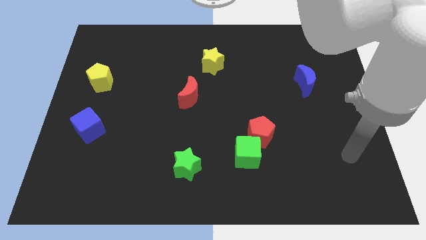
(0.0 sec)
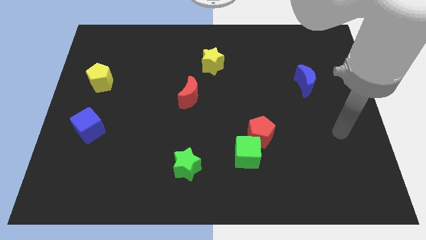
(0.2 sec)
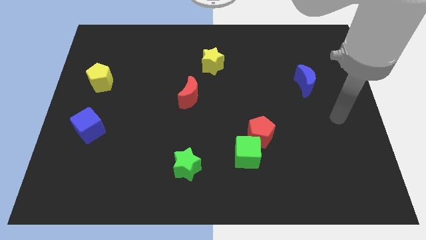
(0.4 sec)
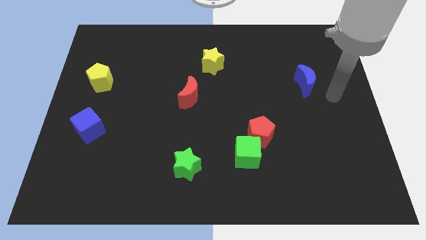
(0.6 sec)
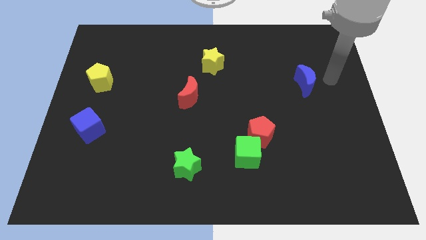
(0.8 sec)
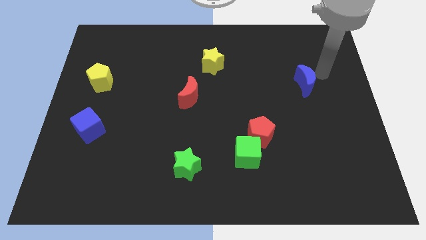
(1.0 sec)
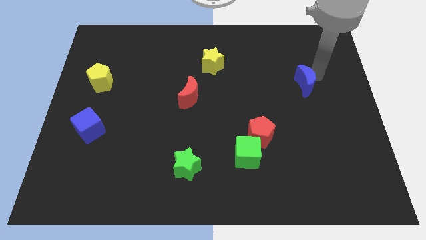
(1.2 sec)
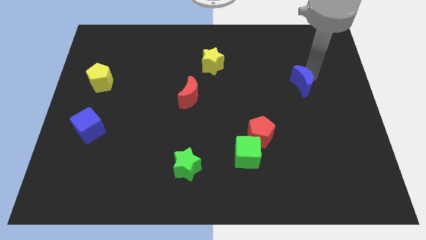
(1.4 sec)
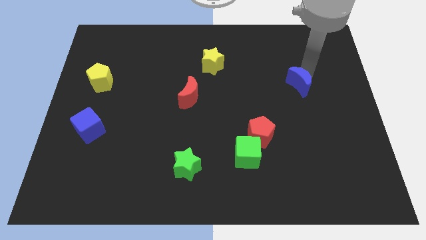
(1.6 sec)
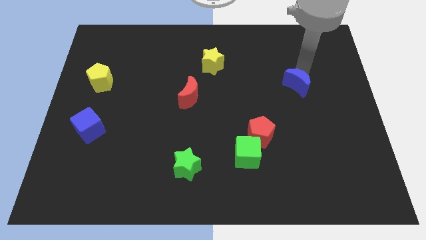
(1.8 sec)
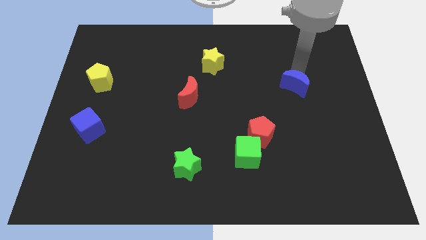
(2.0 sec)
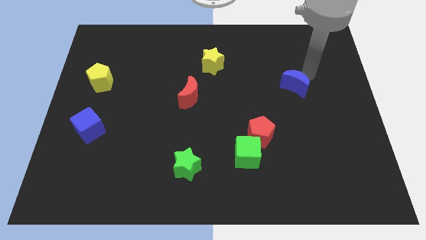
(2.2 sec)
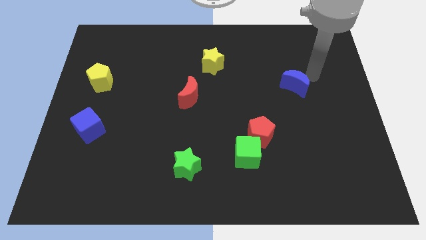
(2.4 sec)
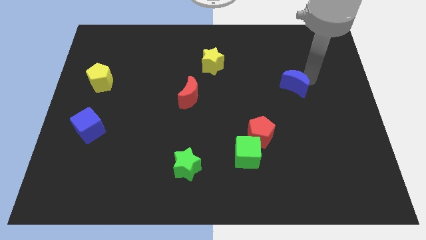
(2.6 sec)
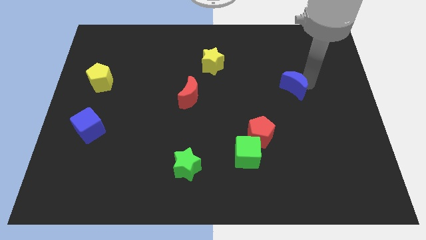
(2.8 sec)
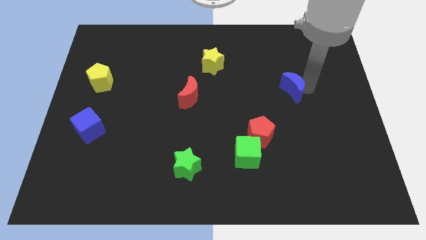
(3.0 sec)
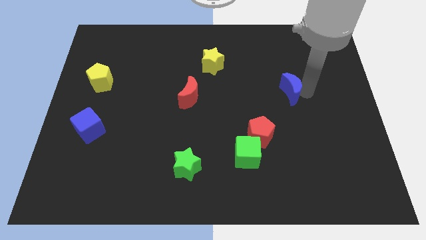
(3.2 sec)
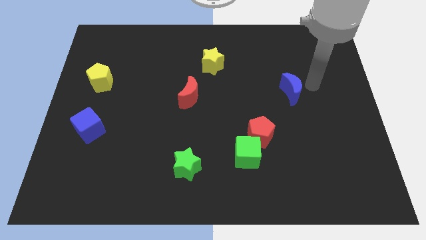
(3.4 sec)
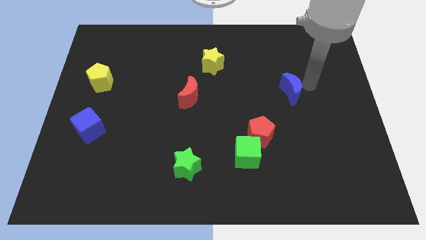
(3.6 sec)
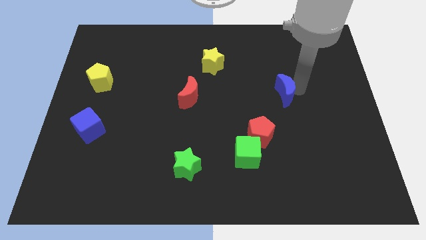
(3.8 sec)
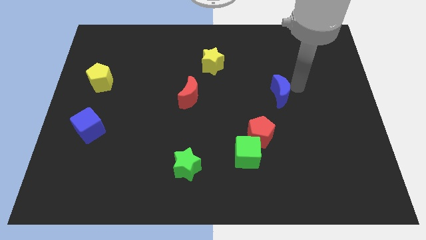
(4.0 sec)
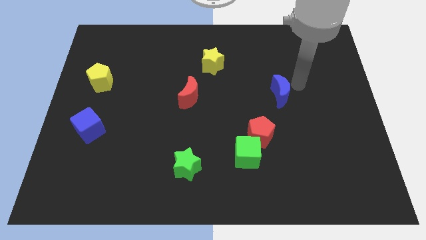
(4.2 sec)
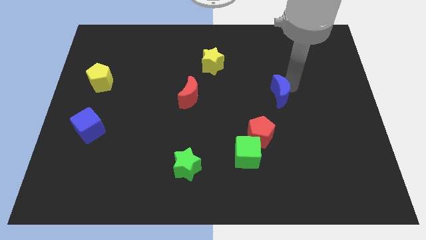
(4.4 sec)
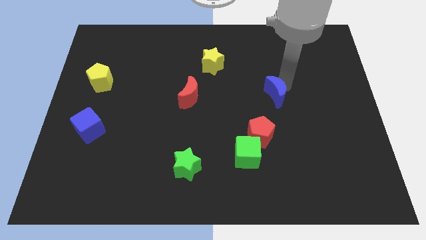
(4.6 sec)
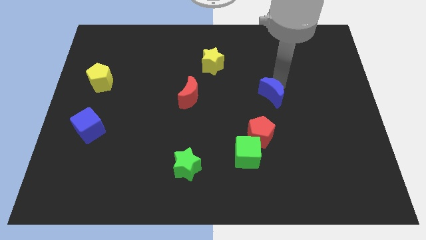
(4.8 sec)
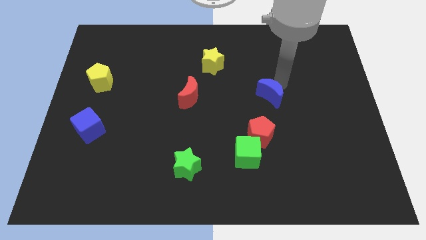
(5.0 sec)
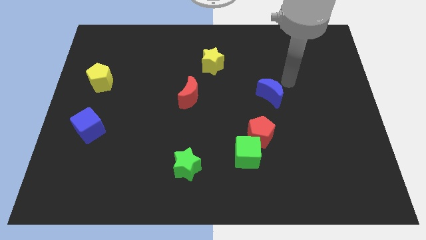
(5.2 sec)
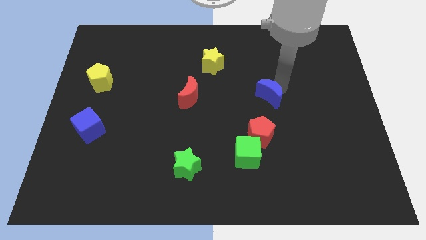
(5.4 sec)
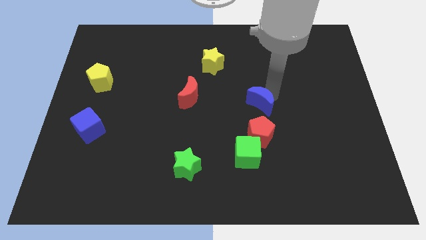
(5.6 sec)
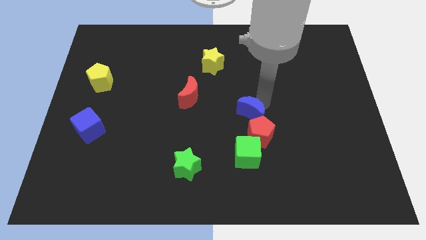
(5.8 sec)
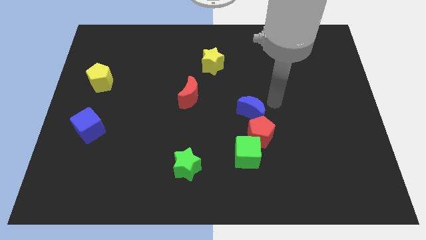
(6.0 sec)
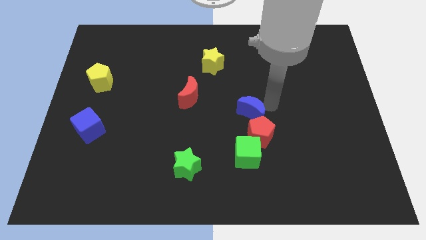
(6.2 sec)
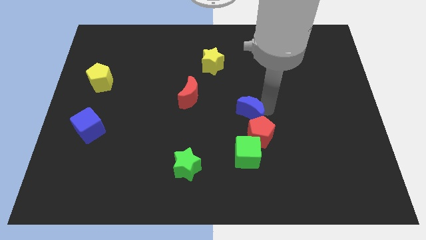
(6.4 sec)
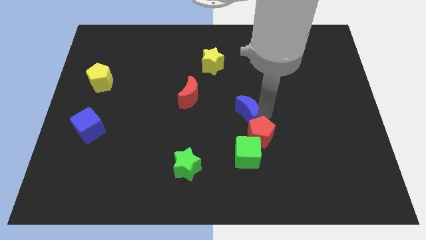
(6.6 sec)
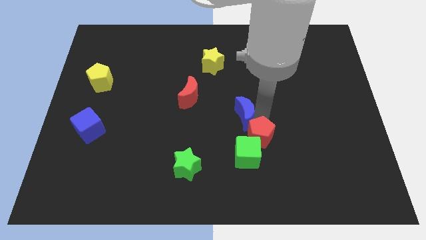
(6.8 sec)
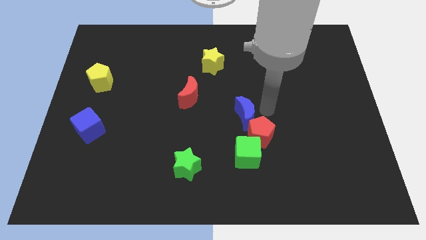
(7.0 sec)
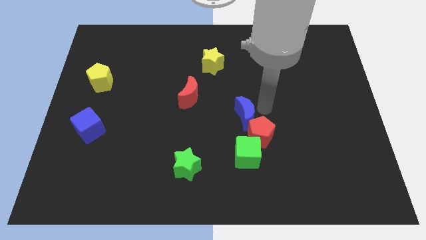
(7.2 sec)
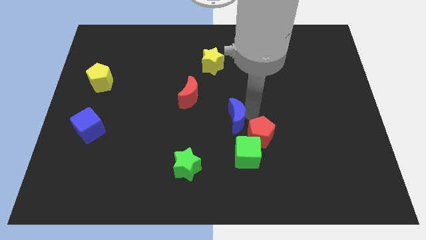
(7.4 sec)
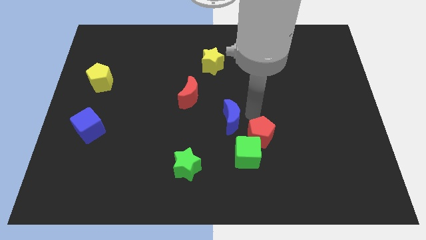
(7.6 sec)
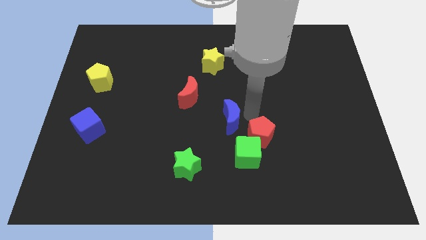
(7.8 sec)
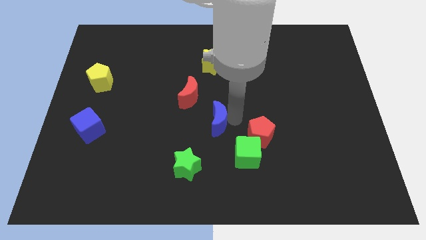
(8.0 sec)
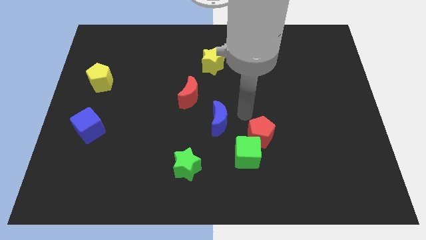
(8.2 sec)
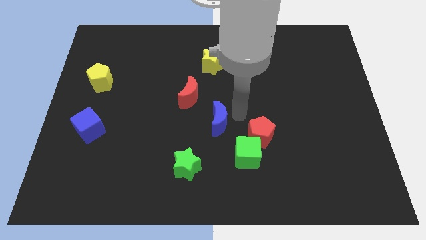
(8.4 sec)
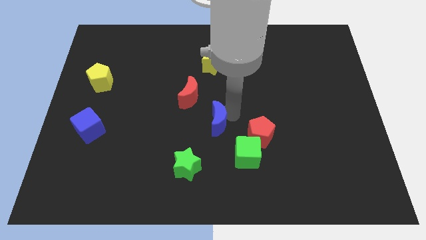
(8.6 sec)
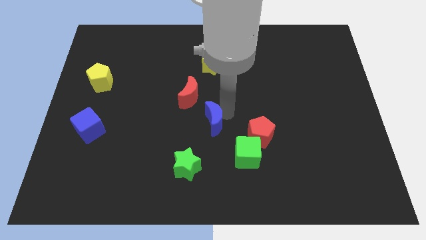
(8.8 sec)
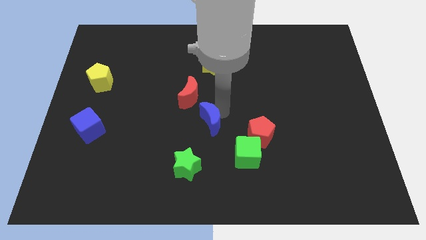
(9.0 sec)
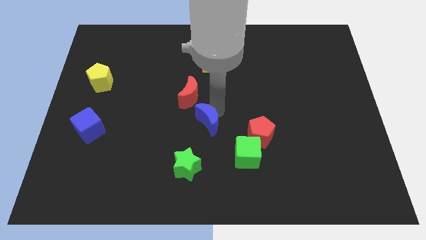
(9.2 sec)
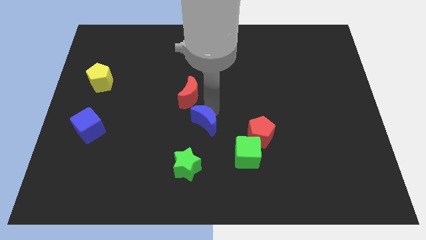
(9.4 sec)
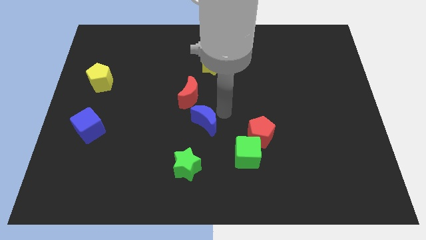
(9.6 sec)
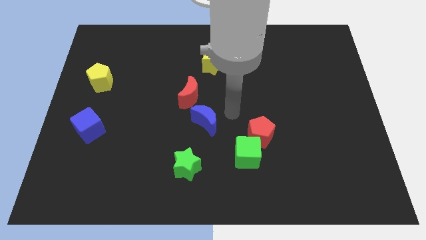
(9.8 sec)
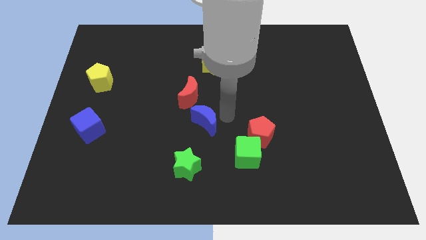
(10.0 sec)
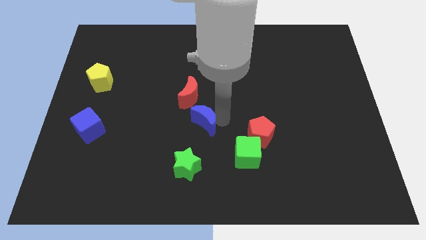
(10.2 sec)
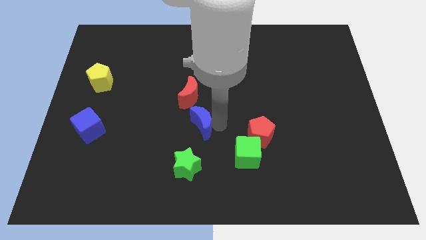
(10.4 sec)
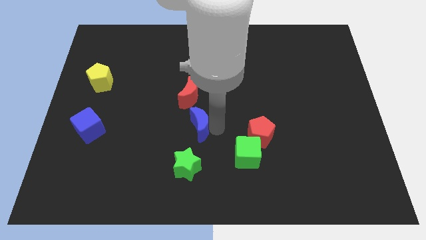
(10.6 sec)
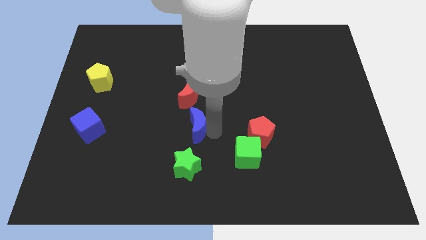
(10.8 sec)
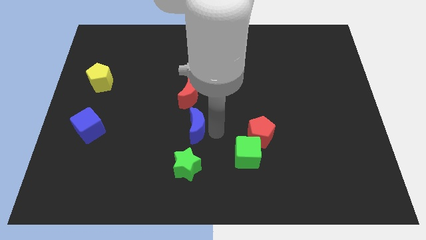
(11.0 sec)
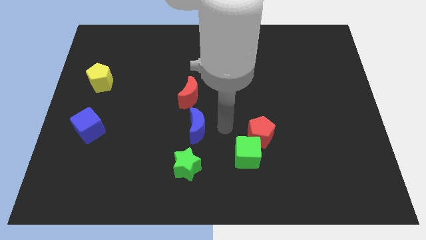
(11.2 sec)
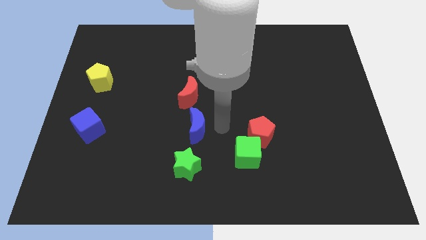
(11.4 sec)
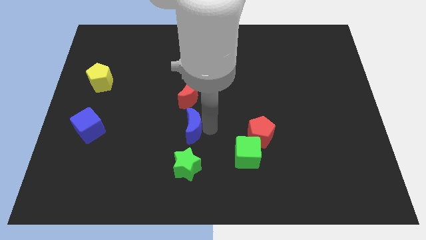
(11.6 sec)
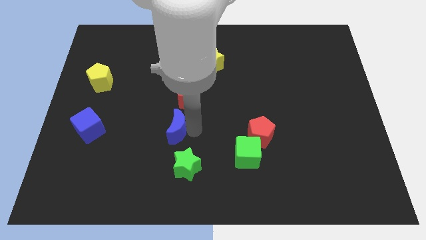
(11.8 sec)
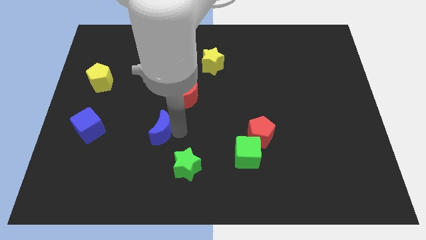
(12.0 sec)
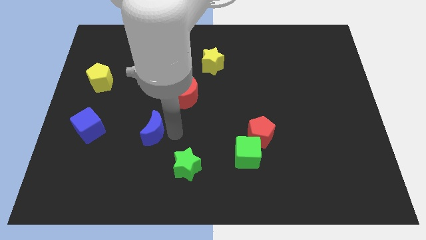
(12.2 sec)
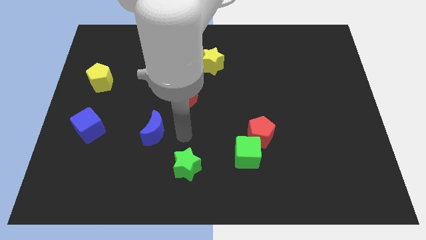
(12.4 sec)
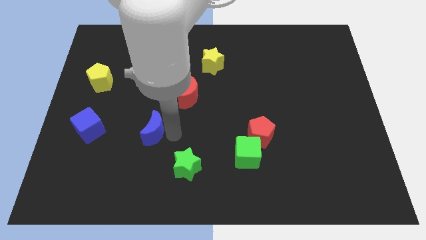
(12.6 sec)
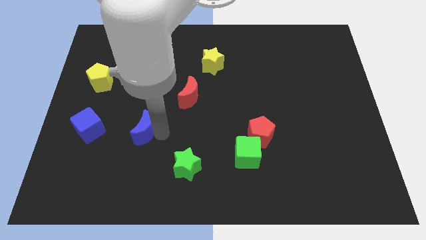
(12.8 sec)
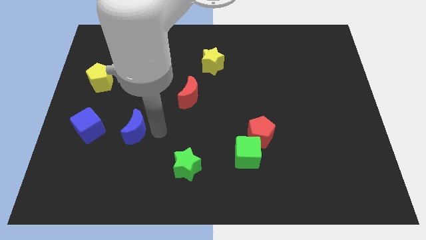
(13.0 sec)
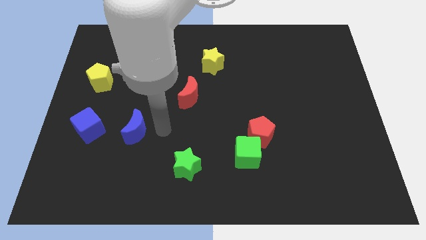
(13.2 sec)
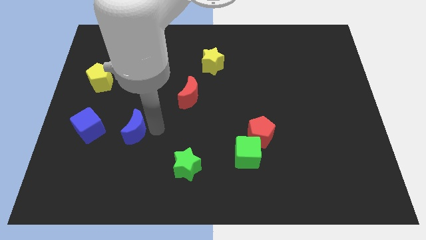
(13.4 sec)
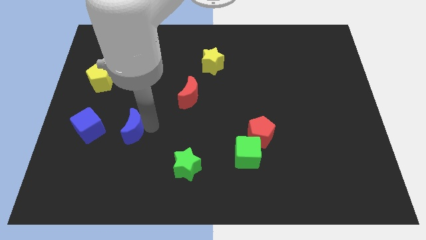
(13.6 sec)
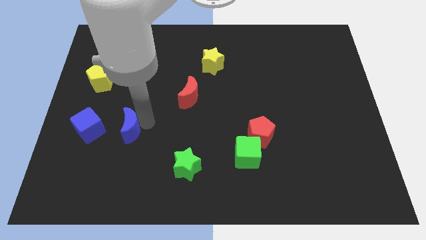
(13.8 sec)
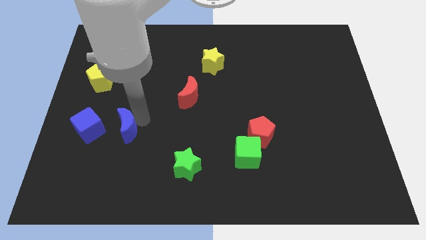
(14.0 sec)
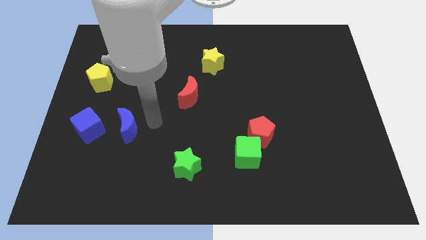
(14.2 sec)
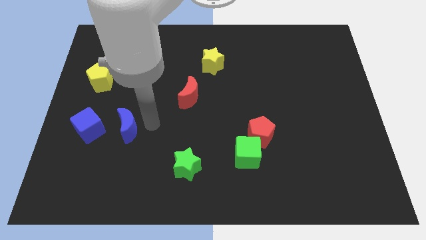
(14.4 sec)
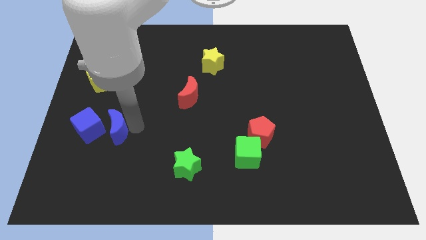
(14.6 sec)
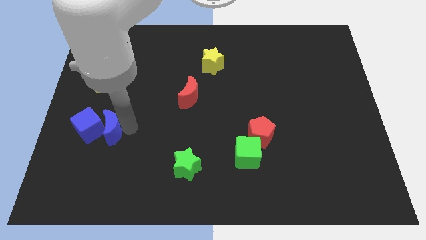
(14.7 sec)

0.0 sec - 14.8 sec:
put the blue moon towards the blue cube

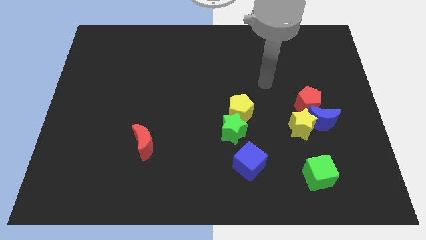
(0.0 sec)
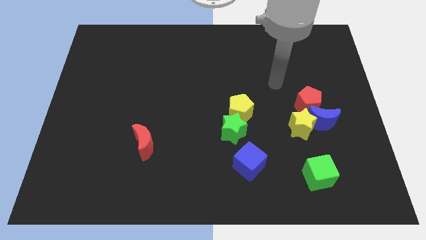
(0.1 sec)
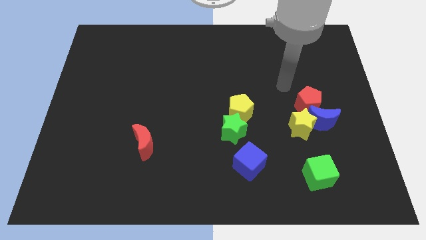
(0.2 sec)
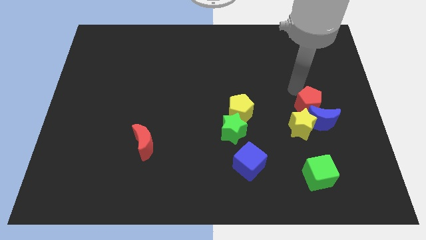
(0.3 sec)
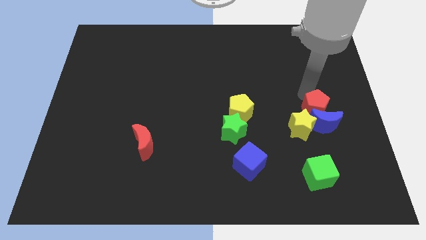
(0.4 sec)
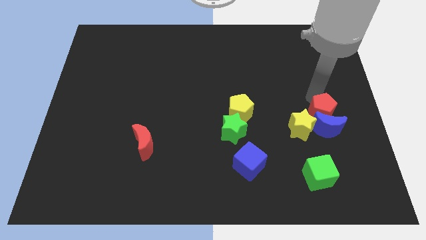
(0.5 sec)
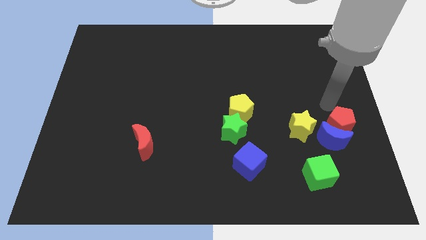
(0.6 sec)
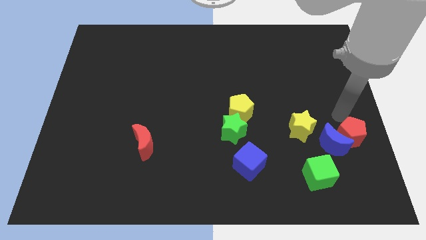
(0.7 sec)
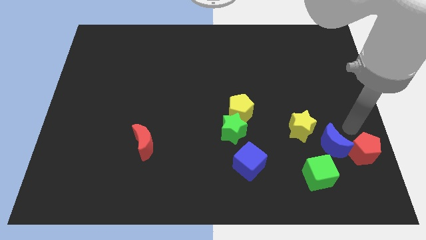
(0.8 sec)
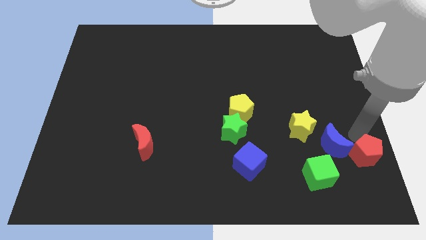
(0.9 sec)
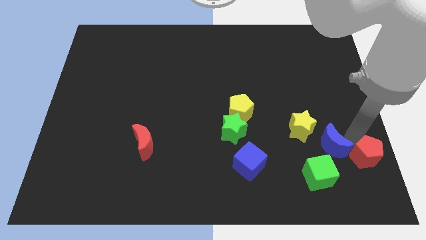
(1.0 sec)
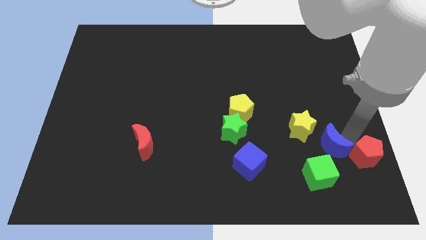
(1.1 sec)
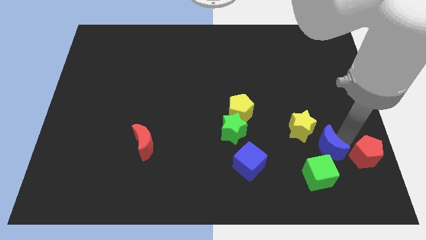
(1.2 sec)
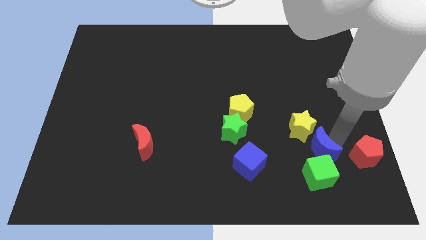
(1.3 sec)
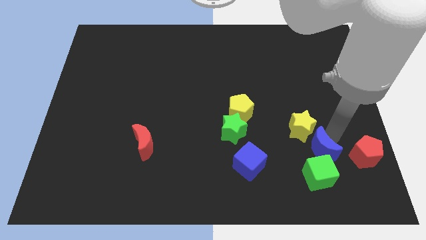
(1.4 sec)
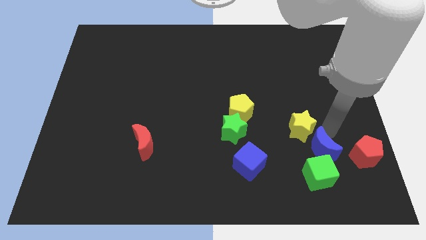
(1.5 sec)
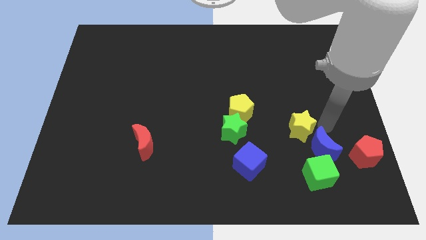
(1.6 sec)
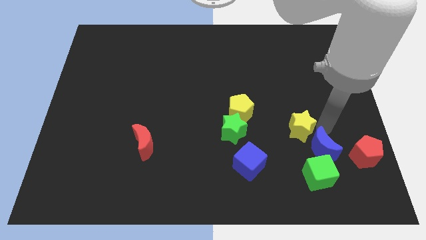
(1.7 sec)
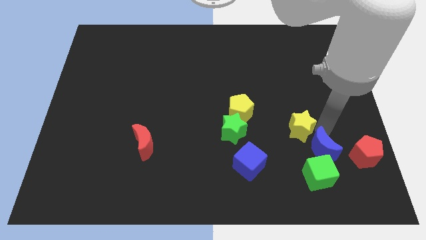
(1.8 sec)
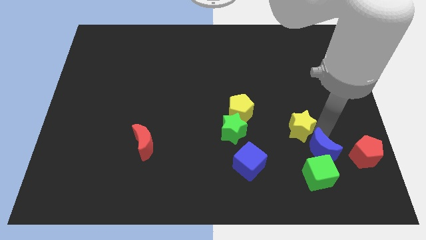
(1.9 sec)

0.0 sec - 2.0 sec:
move the blue moon towards the green cube
